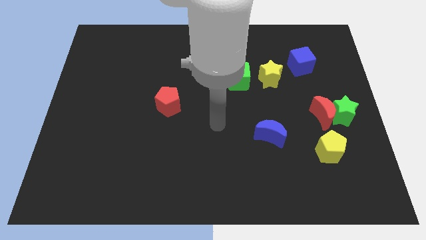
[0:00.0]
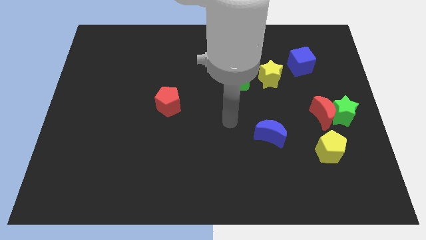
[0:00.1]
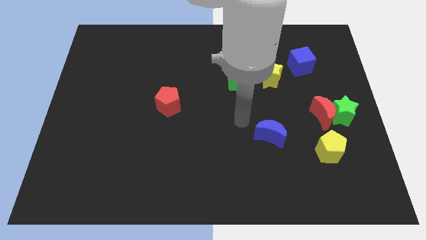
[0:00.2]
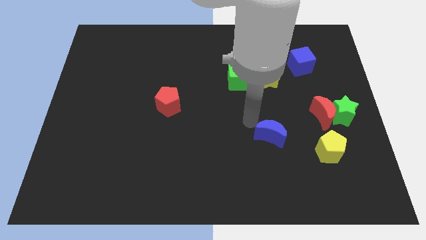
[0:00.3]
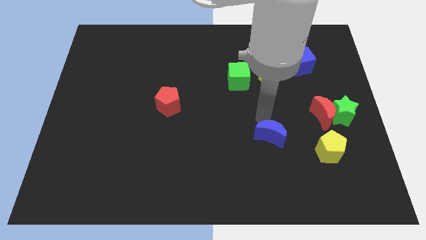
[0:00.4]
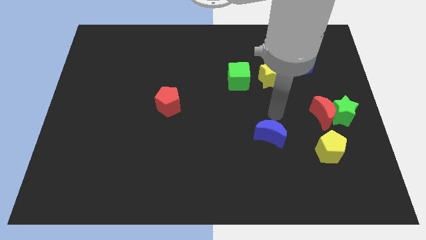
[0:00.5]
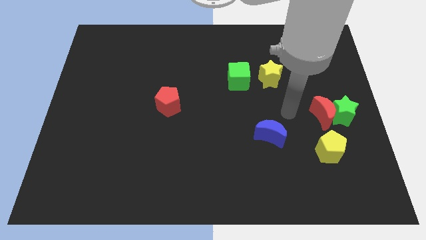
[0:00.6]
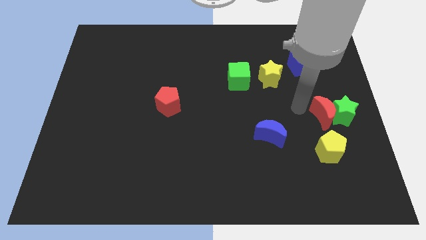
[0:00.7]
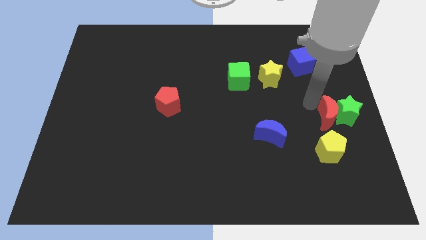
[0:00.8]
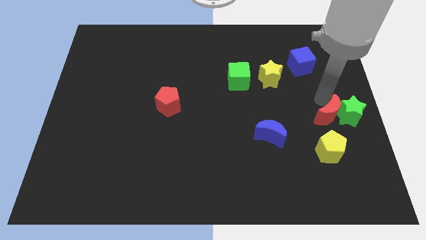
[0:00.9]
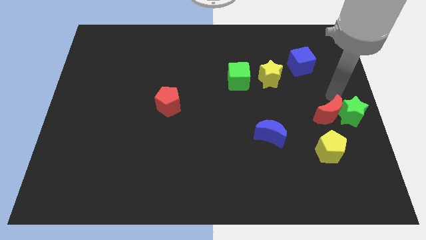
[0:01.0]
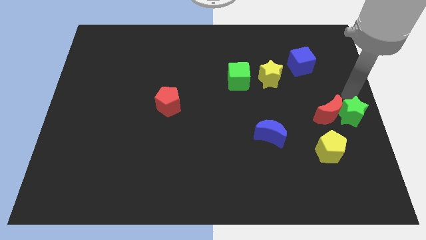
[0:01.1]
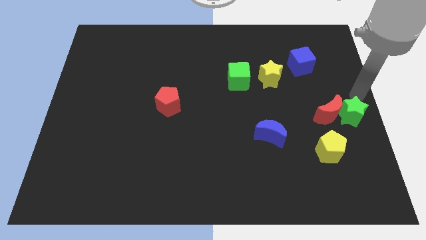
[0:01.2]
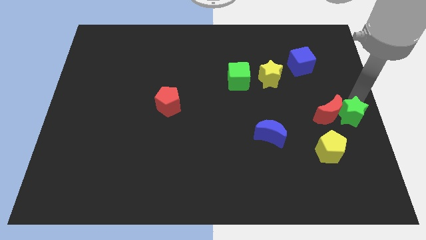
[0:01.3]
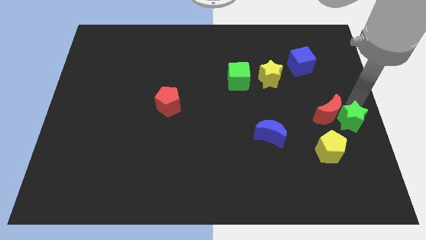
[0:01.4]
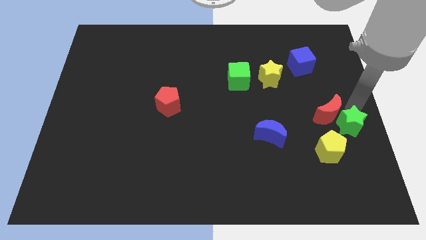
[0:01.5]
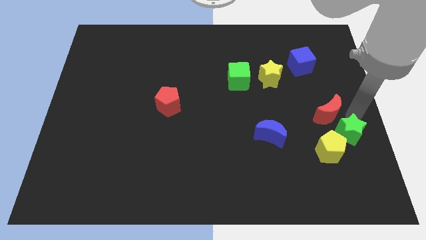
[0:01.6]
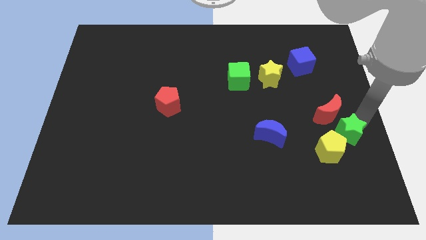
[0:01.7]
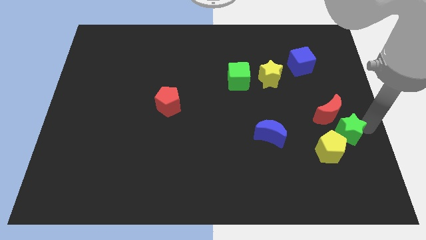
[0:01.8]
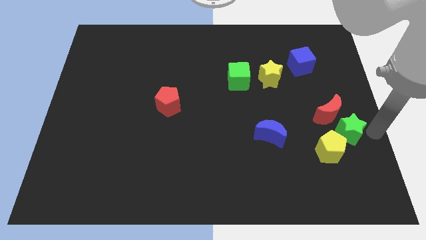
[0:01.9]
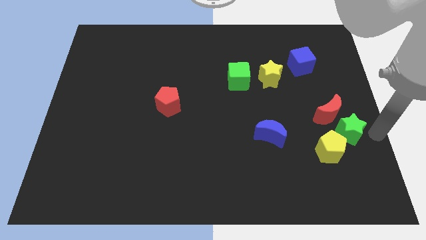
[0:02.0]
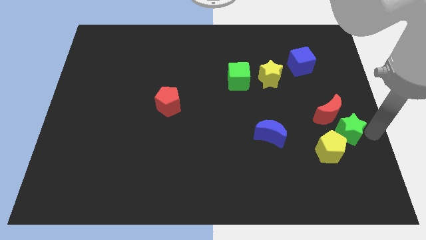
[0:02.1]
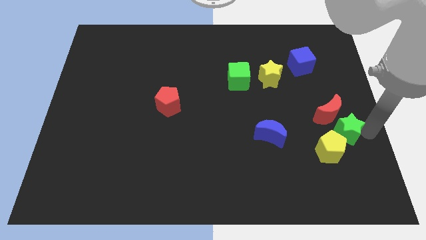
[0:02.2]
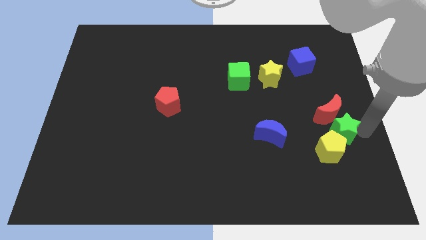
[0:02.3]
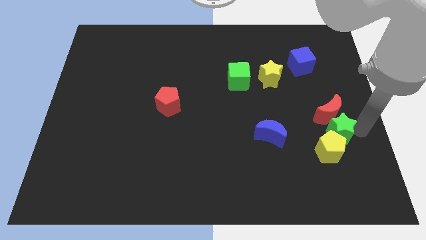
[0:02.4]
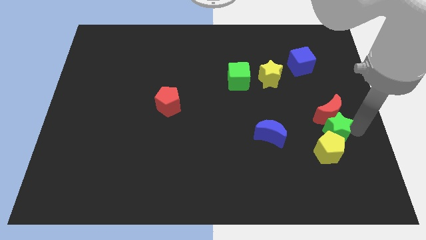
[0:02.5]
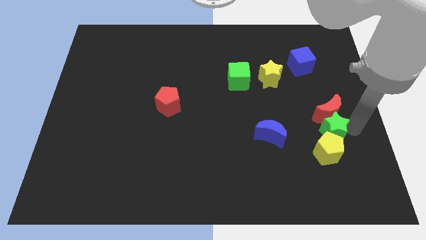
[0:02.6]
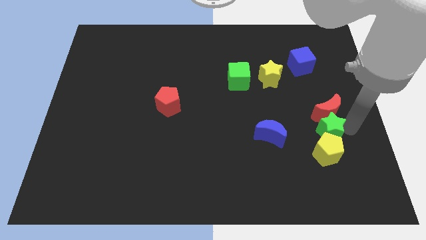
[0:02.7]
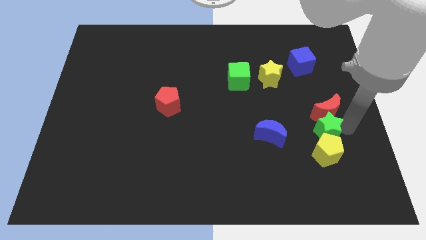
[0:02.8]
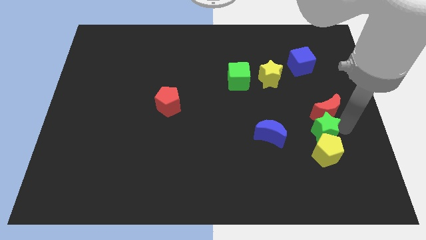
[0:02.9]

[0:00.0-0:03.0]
push the green star downwards and then to the left a little bit

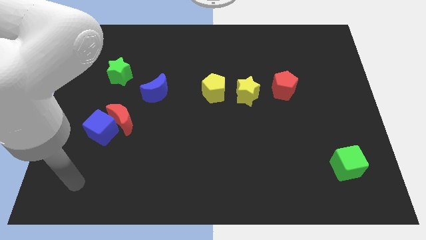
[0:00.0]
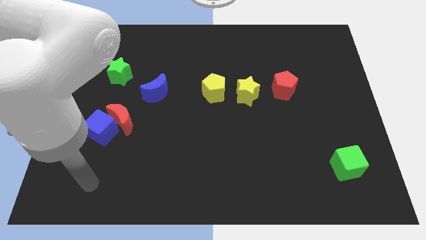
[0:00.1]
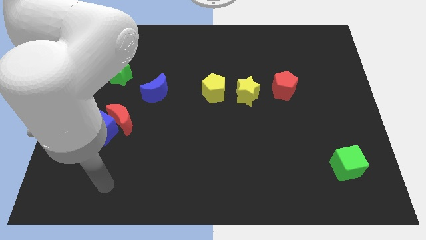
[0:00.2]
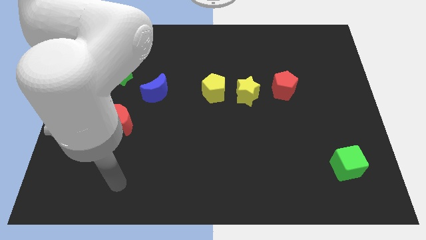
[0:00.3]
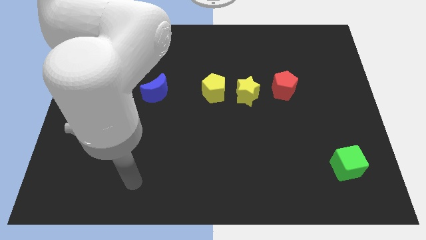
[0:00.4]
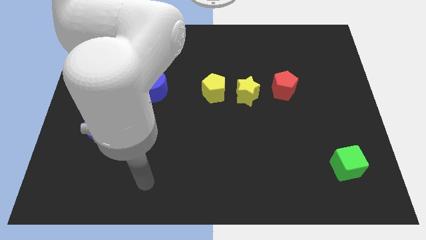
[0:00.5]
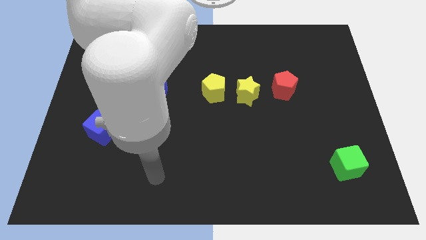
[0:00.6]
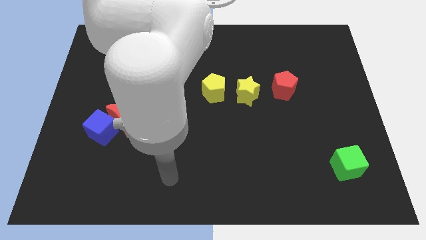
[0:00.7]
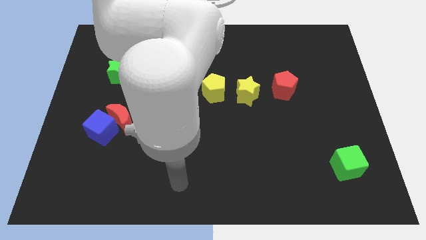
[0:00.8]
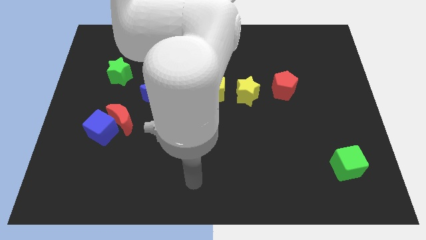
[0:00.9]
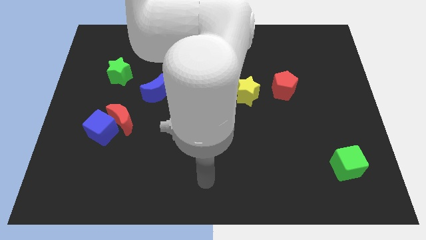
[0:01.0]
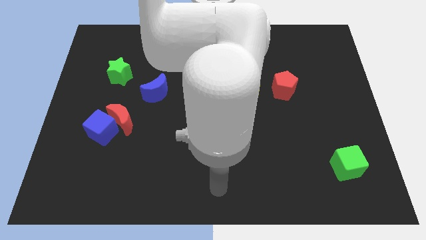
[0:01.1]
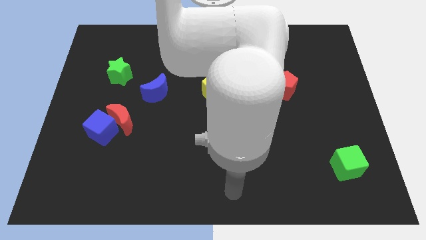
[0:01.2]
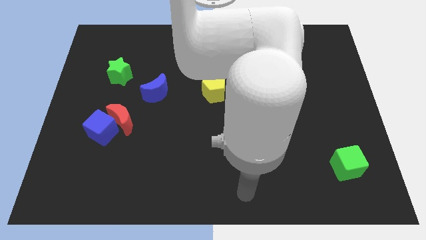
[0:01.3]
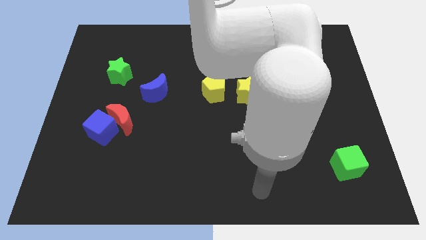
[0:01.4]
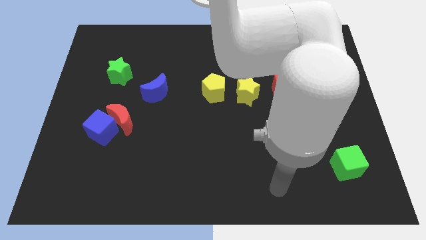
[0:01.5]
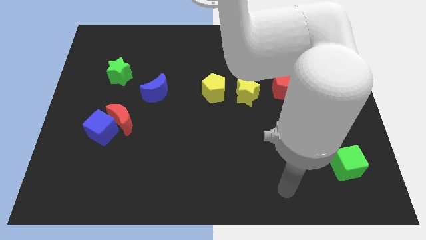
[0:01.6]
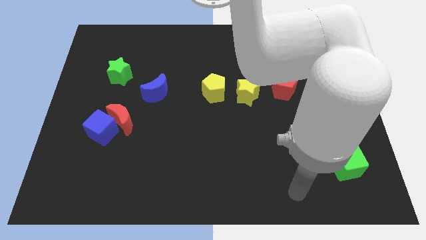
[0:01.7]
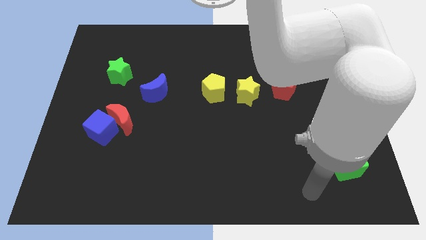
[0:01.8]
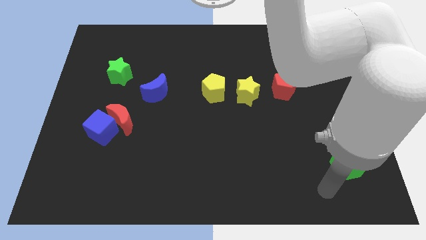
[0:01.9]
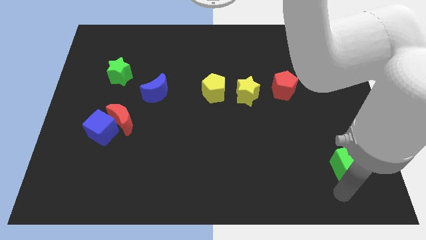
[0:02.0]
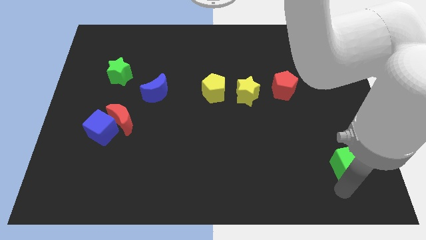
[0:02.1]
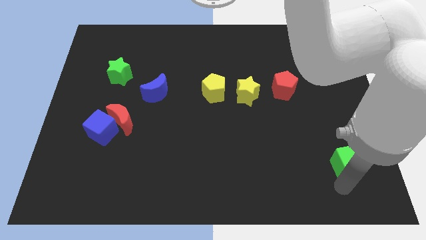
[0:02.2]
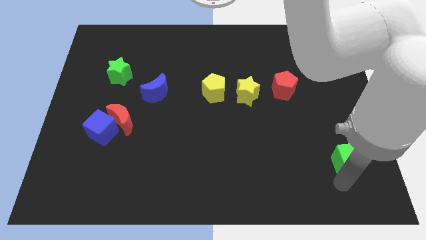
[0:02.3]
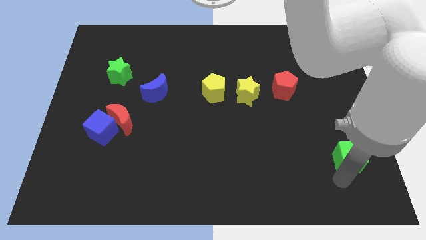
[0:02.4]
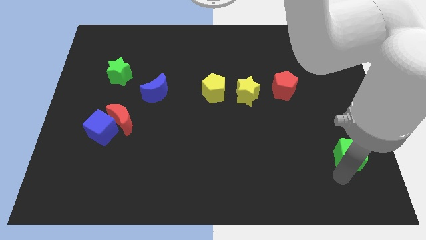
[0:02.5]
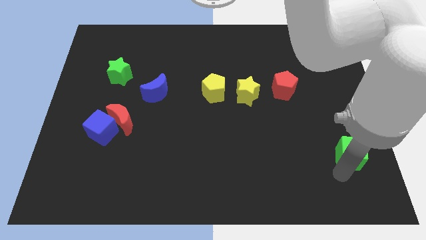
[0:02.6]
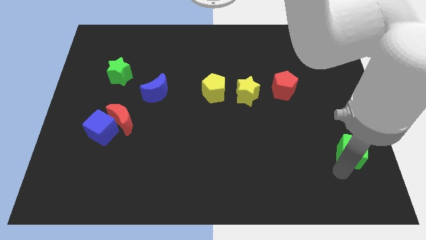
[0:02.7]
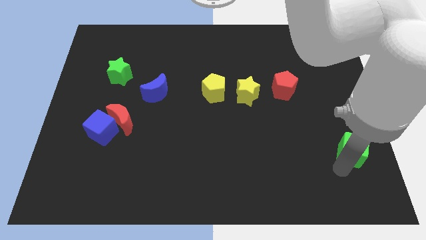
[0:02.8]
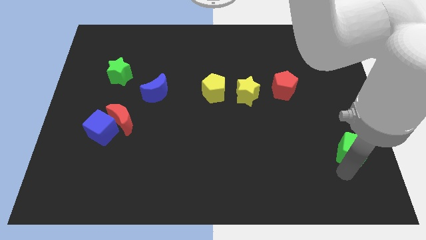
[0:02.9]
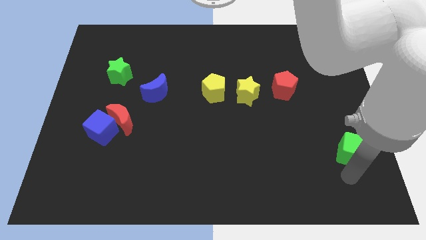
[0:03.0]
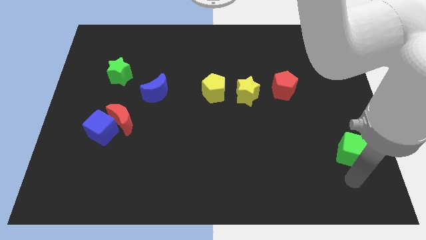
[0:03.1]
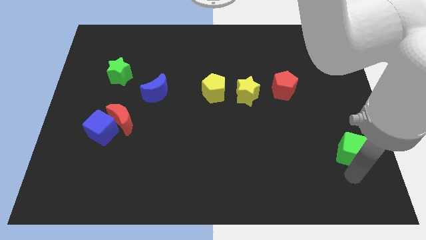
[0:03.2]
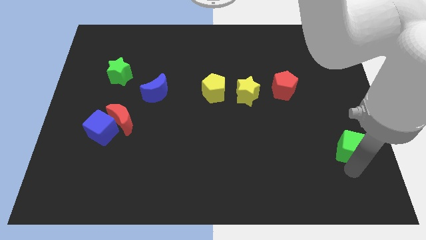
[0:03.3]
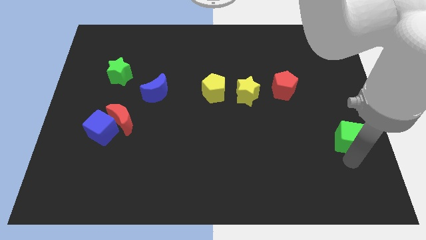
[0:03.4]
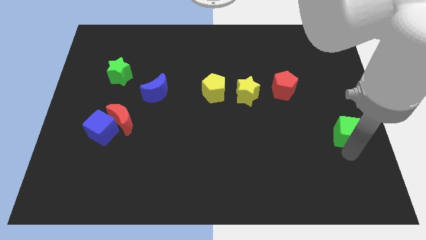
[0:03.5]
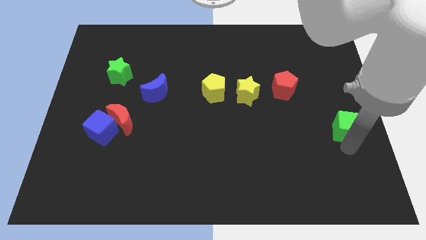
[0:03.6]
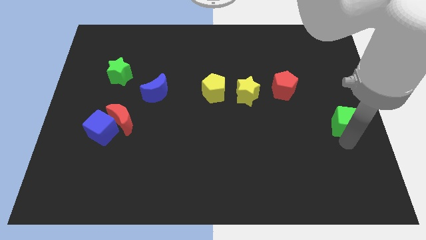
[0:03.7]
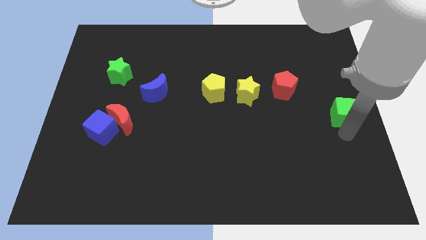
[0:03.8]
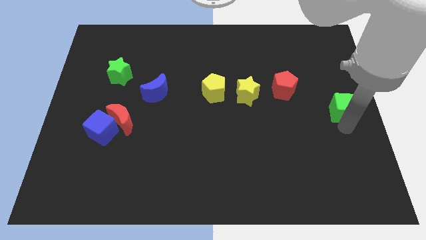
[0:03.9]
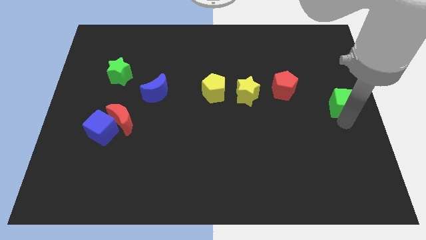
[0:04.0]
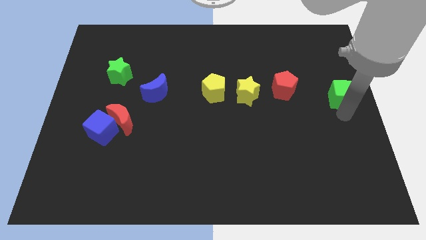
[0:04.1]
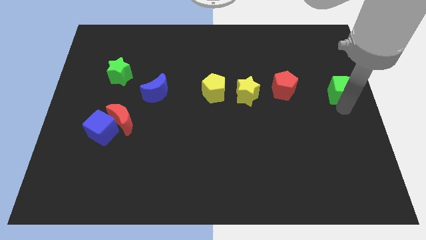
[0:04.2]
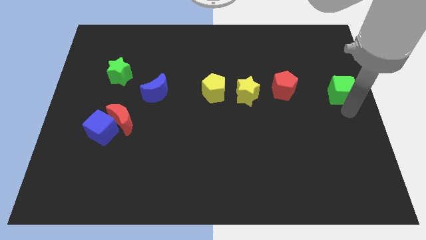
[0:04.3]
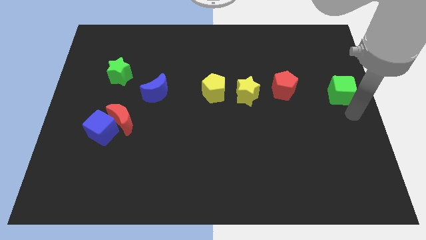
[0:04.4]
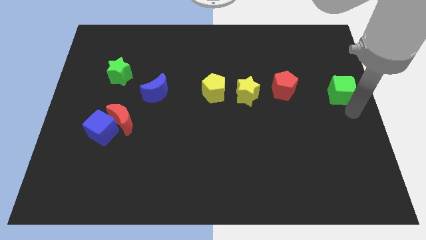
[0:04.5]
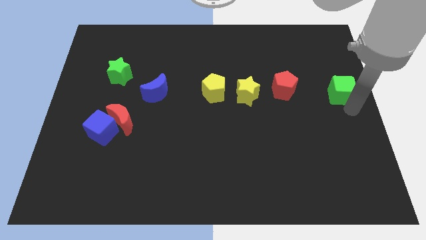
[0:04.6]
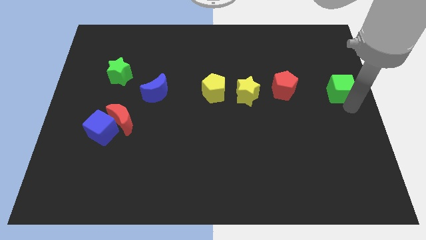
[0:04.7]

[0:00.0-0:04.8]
slide the green cube upwards

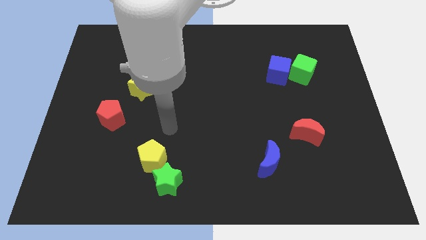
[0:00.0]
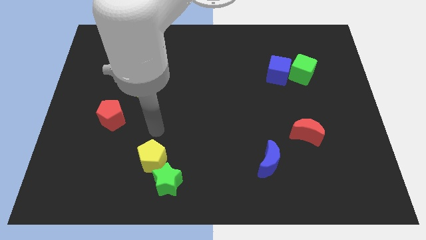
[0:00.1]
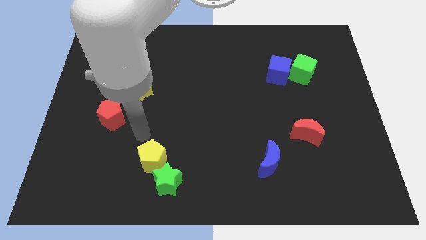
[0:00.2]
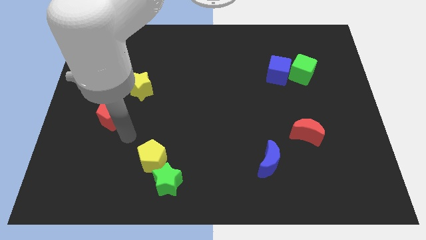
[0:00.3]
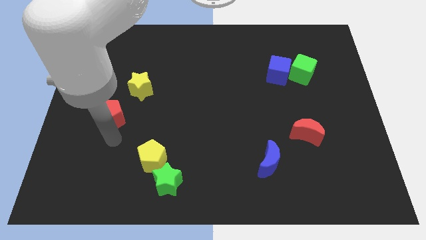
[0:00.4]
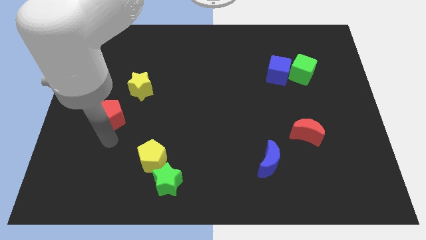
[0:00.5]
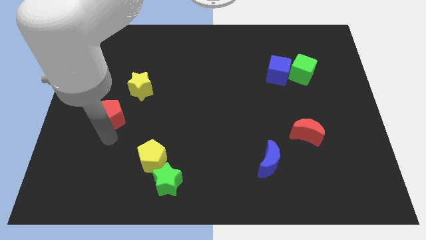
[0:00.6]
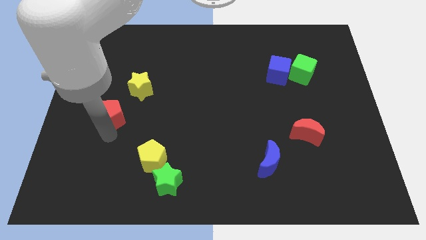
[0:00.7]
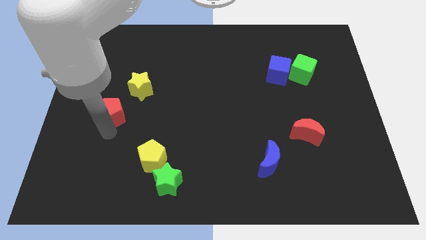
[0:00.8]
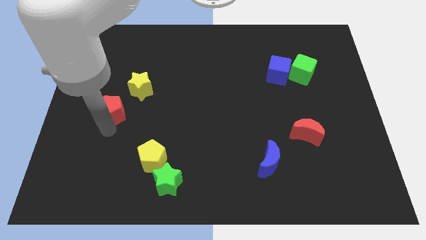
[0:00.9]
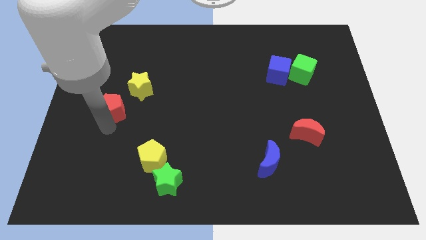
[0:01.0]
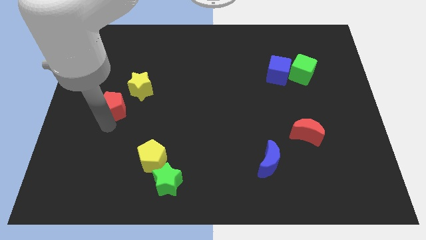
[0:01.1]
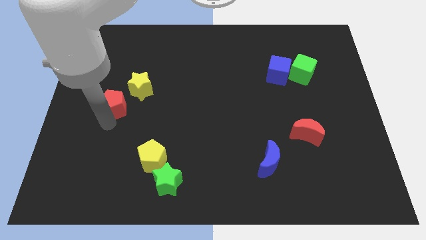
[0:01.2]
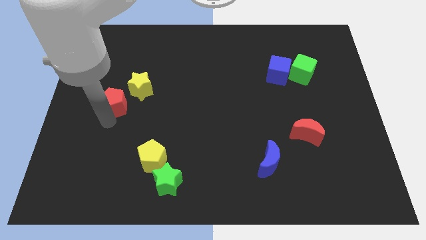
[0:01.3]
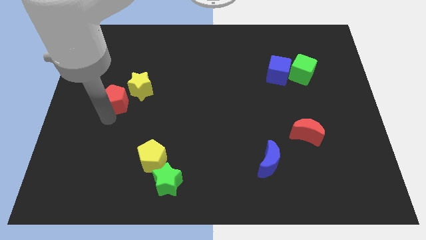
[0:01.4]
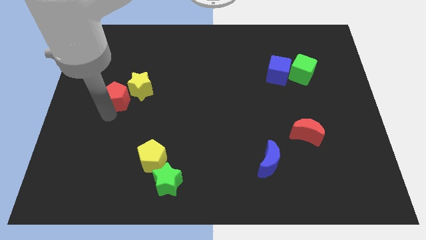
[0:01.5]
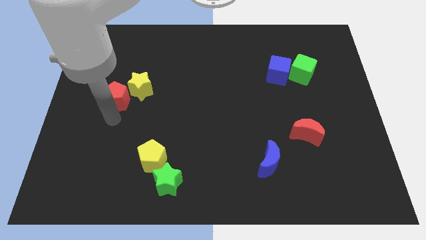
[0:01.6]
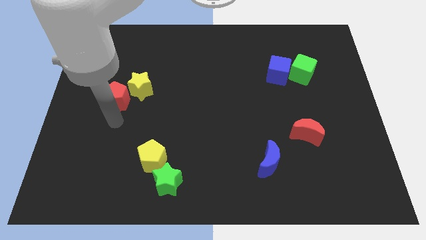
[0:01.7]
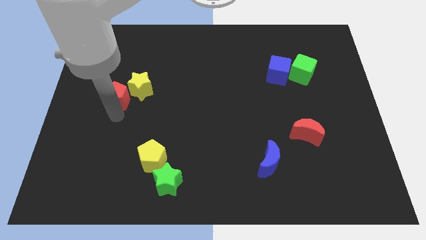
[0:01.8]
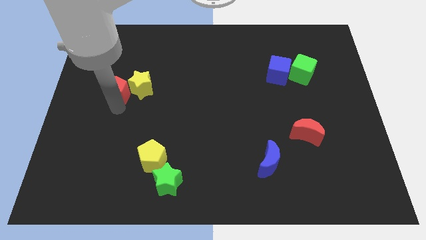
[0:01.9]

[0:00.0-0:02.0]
slightly slide the red pentagon up
